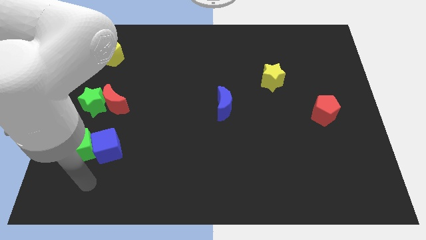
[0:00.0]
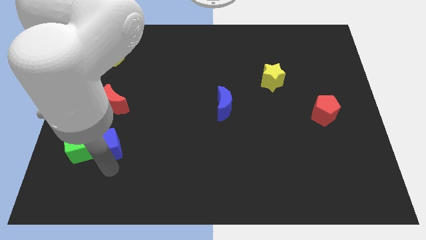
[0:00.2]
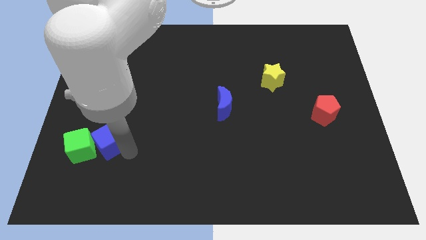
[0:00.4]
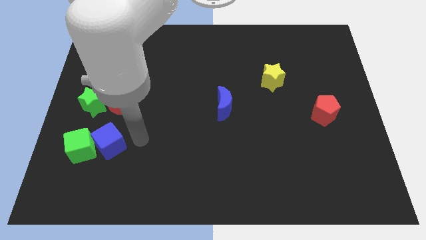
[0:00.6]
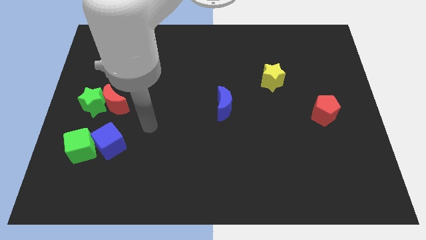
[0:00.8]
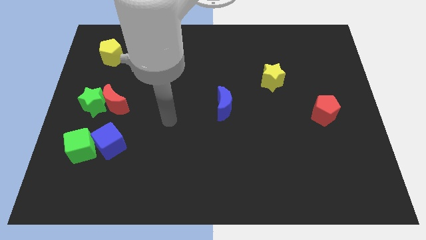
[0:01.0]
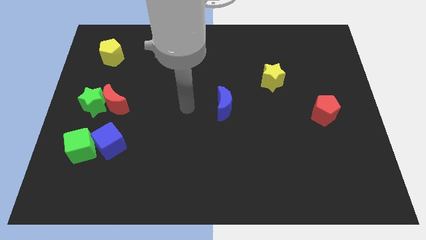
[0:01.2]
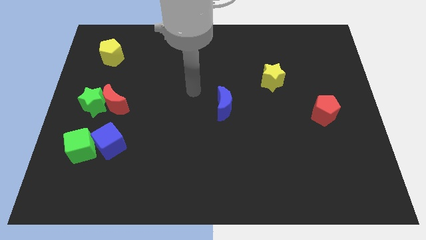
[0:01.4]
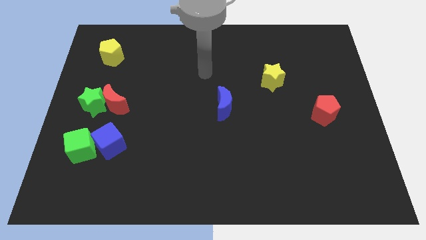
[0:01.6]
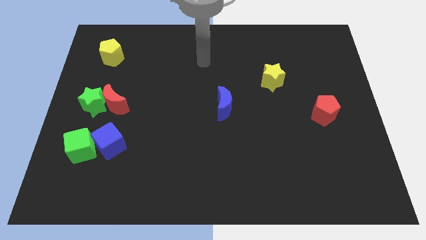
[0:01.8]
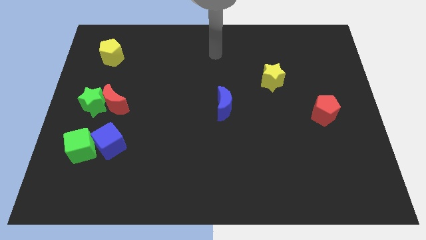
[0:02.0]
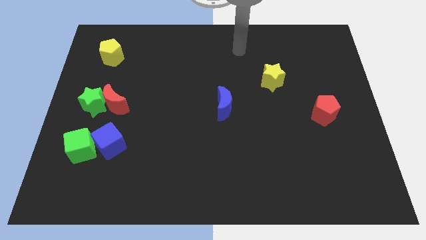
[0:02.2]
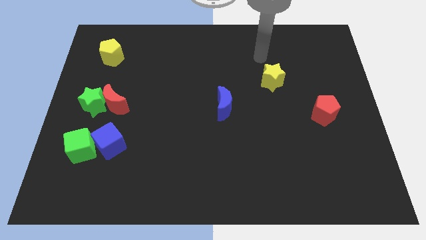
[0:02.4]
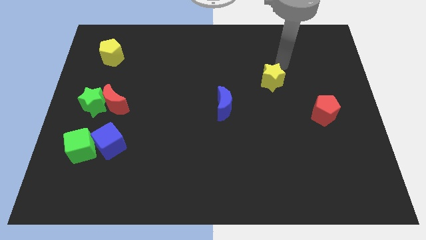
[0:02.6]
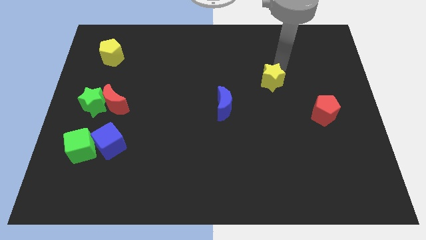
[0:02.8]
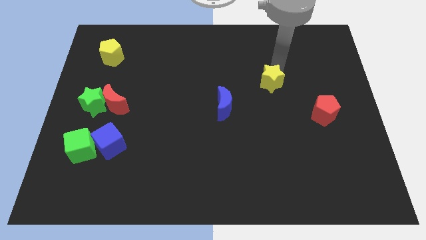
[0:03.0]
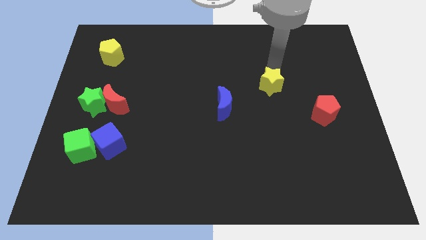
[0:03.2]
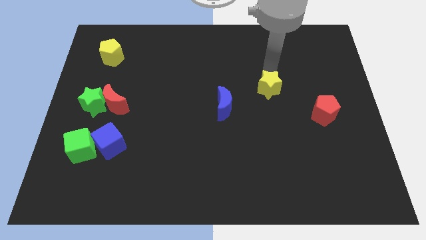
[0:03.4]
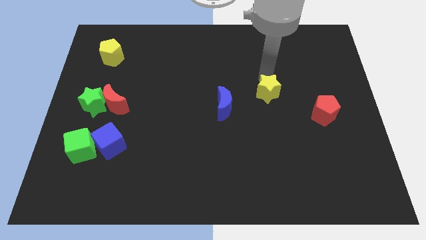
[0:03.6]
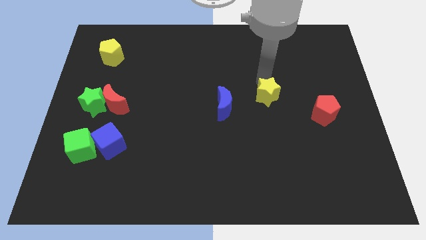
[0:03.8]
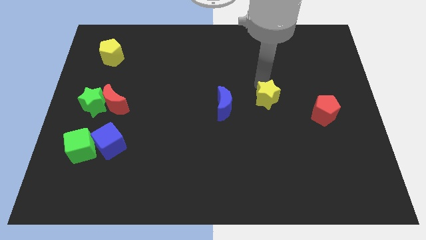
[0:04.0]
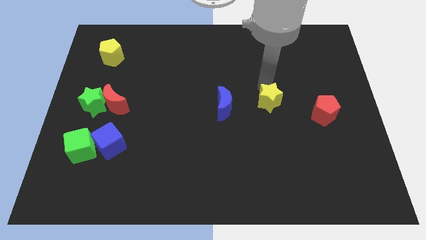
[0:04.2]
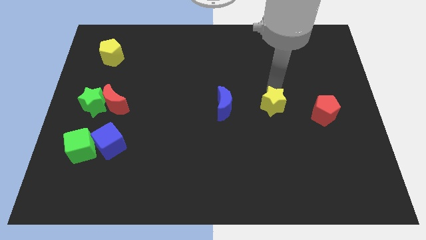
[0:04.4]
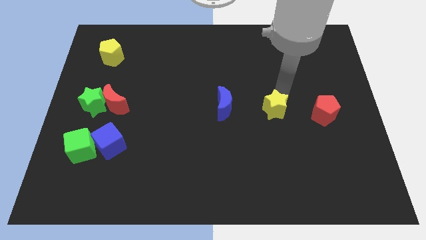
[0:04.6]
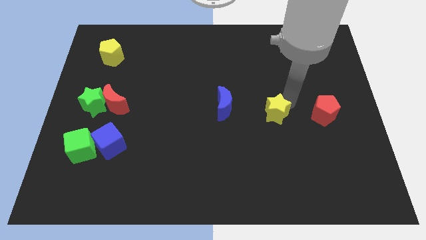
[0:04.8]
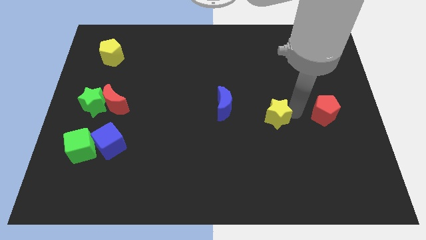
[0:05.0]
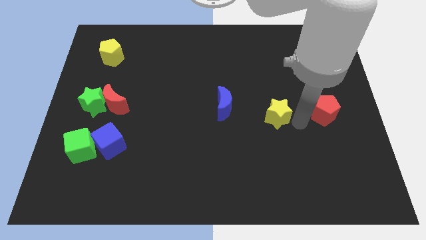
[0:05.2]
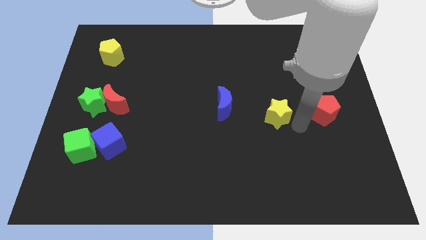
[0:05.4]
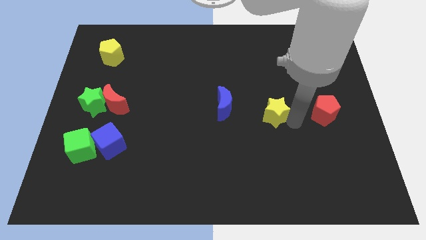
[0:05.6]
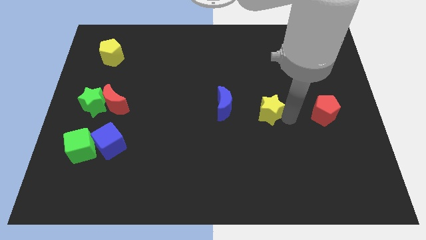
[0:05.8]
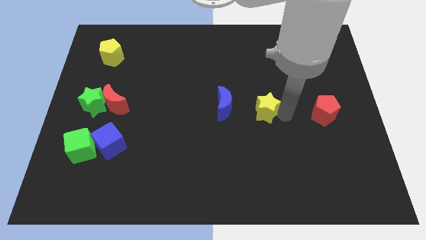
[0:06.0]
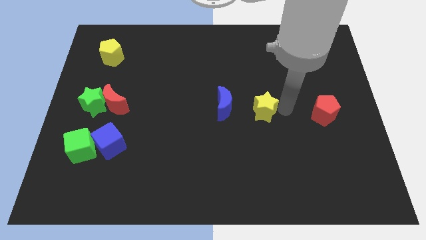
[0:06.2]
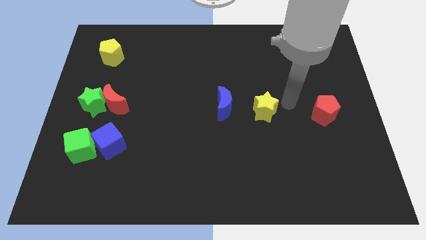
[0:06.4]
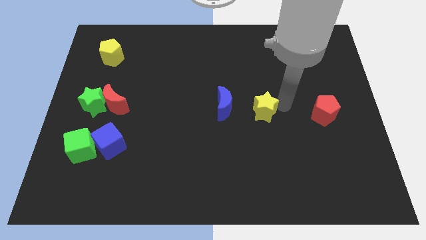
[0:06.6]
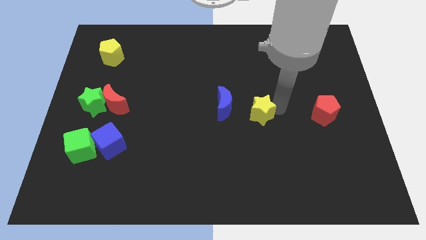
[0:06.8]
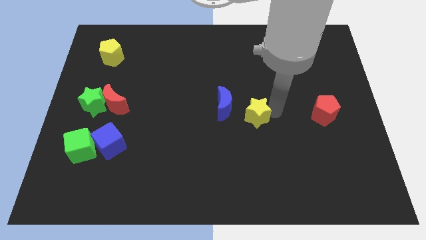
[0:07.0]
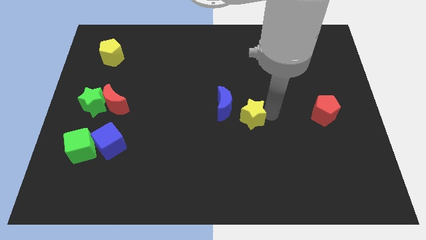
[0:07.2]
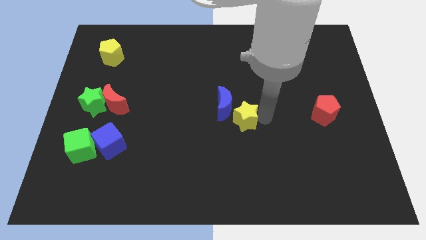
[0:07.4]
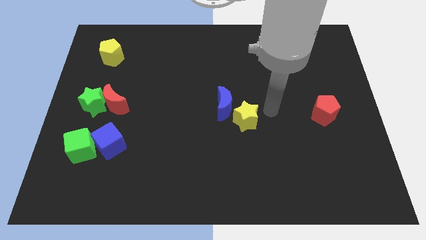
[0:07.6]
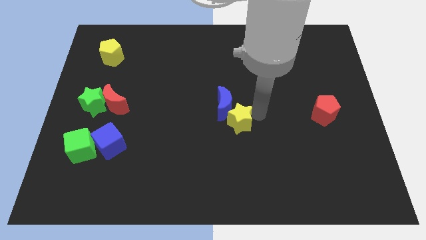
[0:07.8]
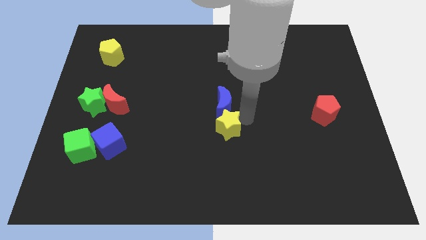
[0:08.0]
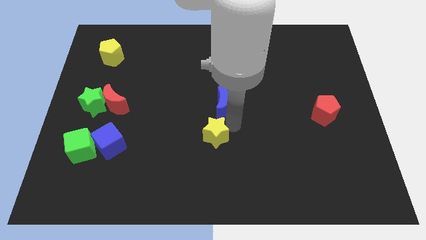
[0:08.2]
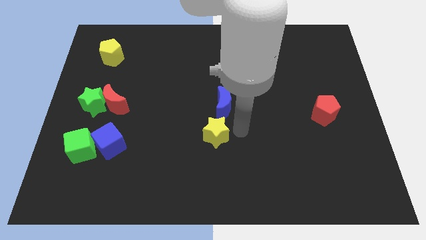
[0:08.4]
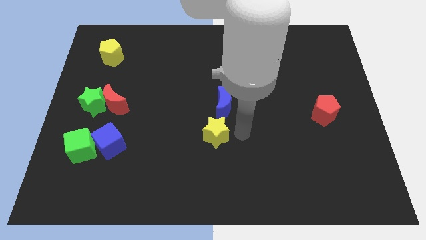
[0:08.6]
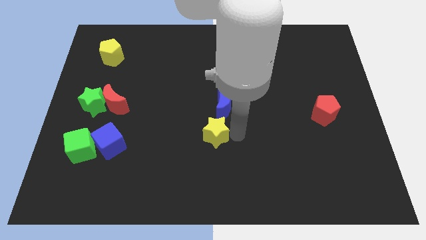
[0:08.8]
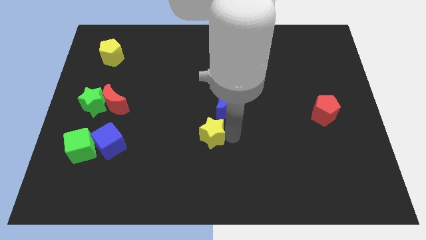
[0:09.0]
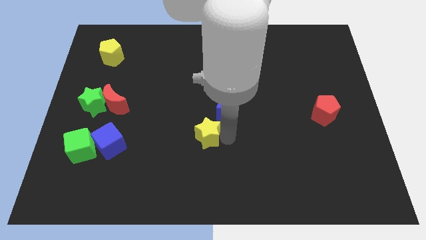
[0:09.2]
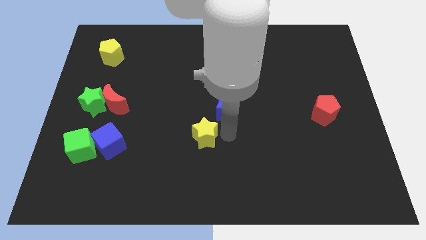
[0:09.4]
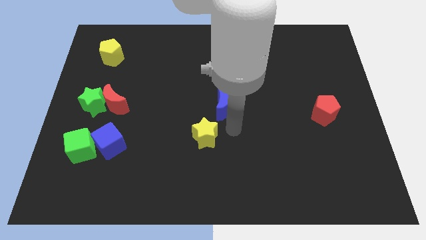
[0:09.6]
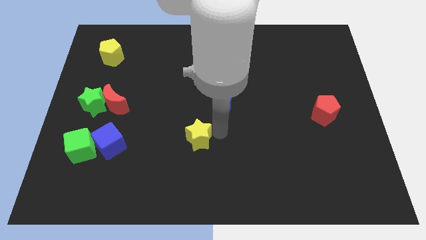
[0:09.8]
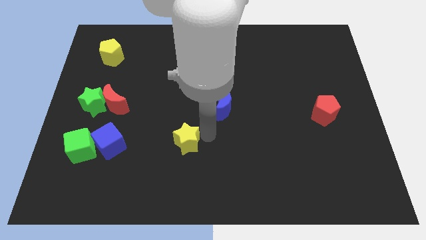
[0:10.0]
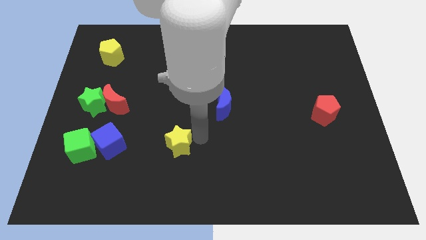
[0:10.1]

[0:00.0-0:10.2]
slide the yellow star right of the blue cube

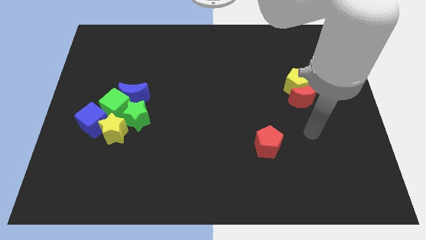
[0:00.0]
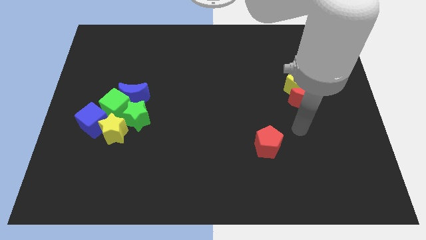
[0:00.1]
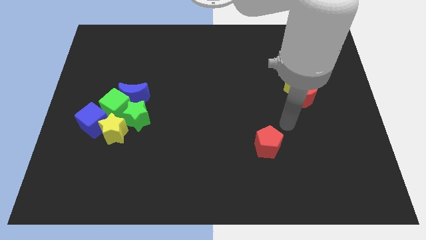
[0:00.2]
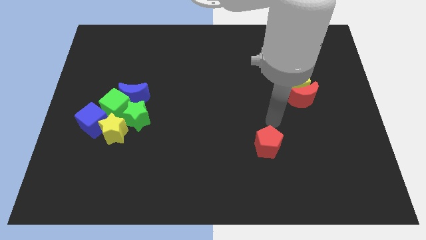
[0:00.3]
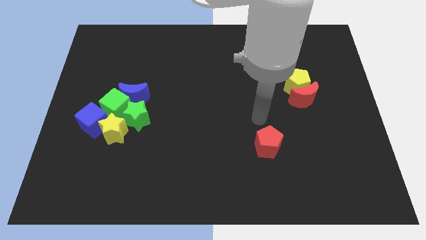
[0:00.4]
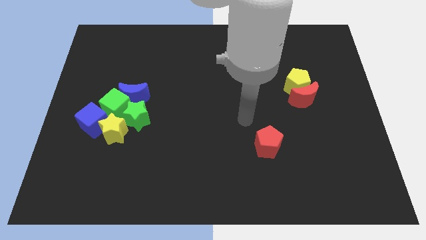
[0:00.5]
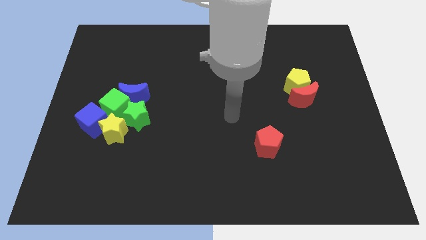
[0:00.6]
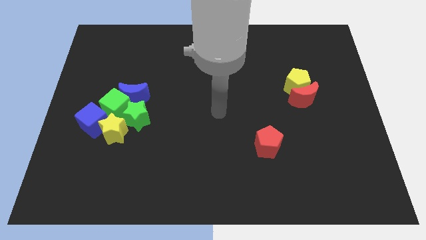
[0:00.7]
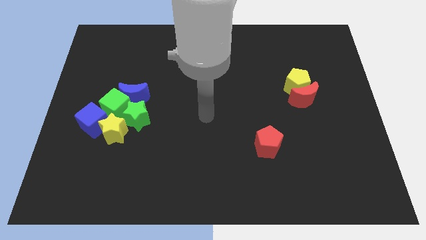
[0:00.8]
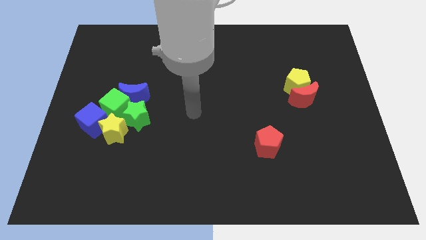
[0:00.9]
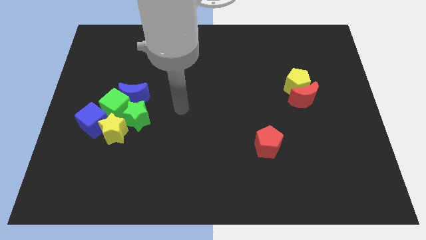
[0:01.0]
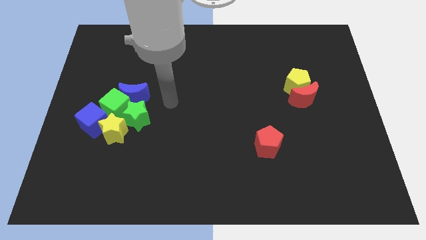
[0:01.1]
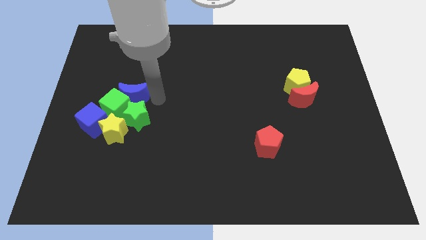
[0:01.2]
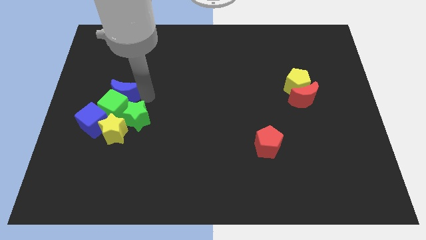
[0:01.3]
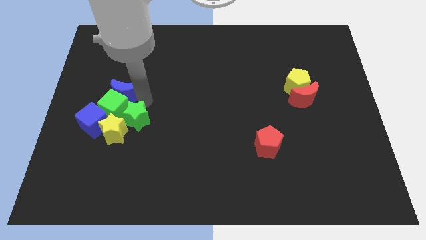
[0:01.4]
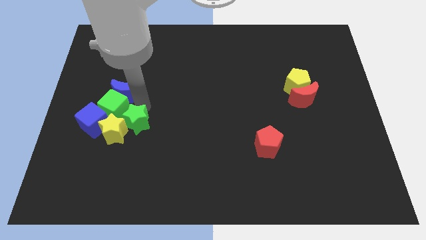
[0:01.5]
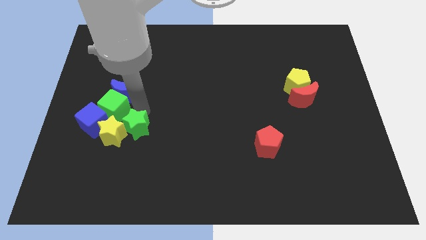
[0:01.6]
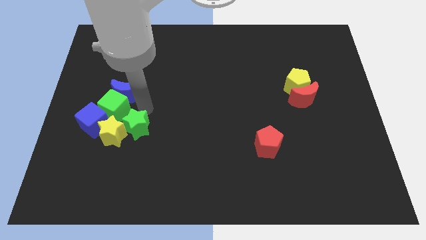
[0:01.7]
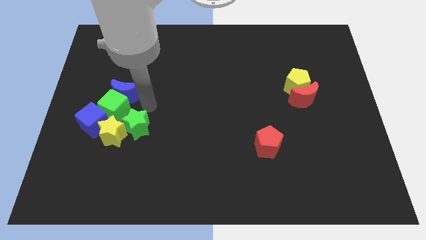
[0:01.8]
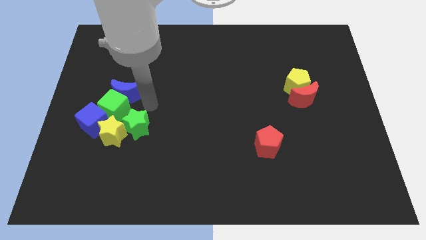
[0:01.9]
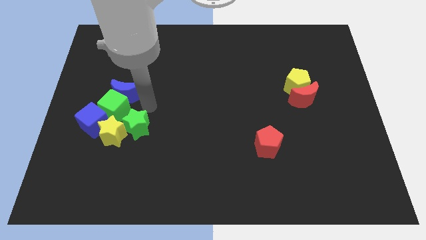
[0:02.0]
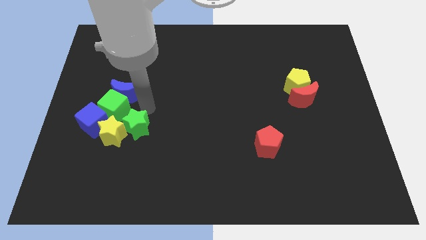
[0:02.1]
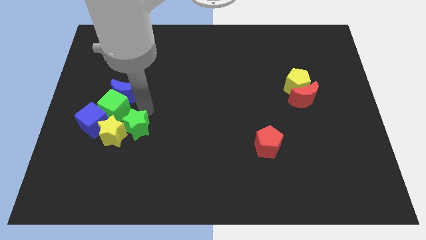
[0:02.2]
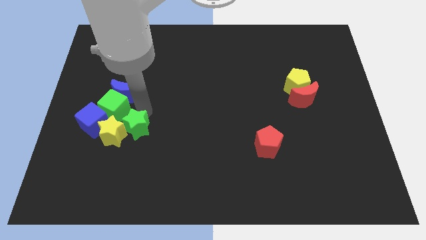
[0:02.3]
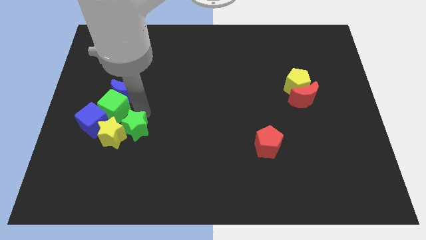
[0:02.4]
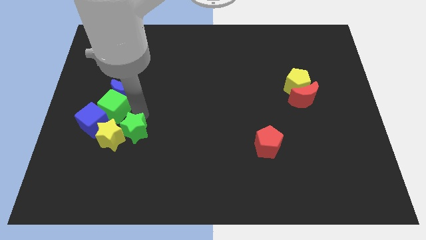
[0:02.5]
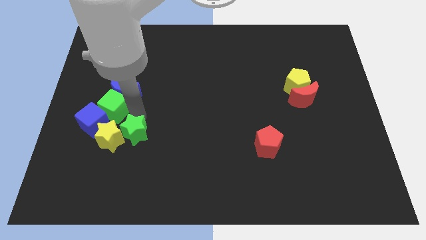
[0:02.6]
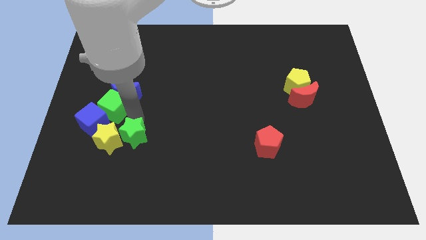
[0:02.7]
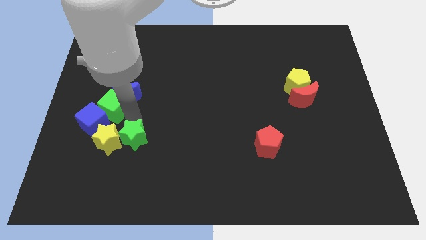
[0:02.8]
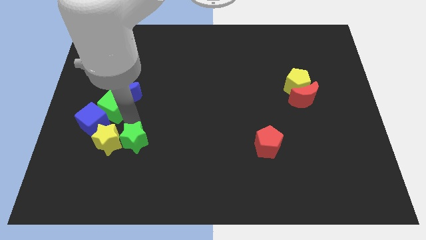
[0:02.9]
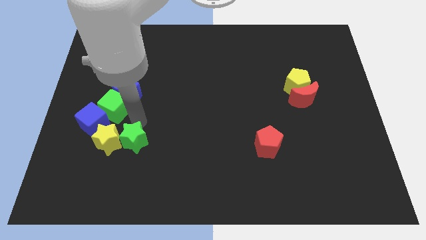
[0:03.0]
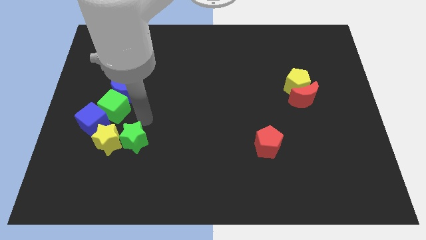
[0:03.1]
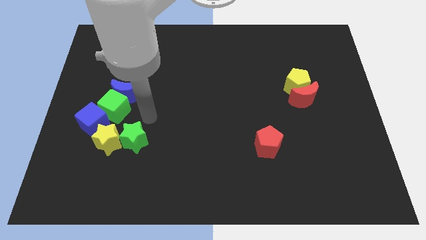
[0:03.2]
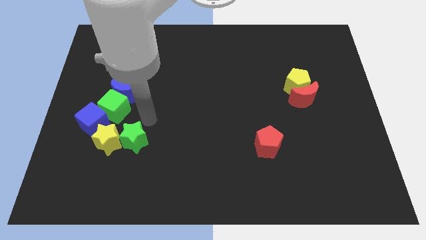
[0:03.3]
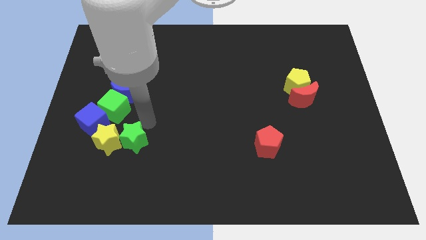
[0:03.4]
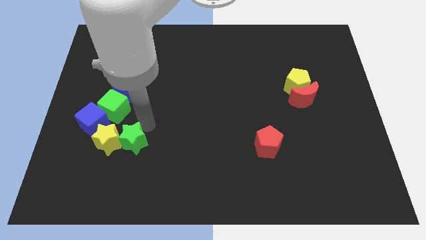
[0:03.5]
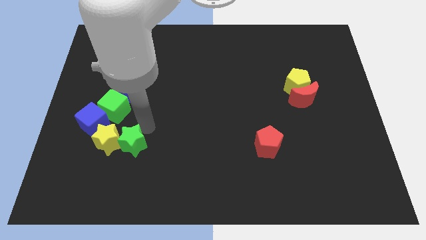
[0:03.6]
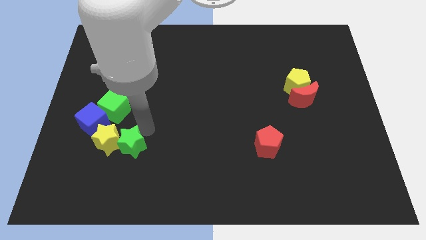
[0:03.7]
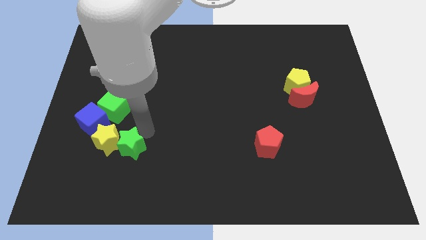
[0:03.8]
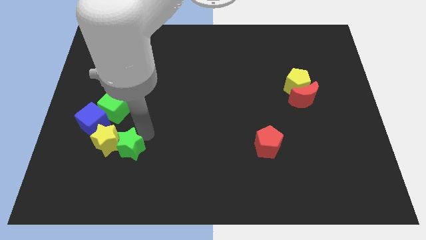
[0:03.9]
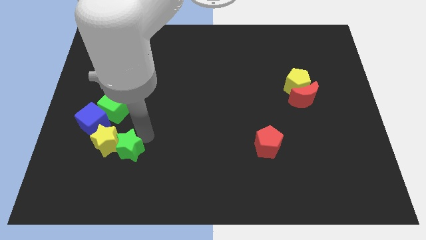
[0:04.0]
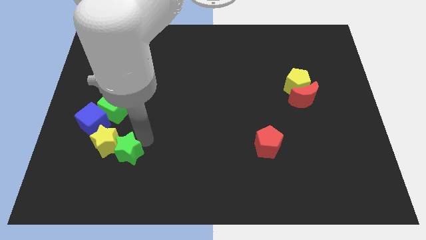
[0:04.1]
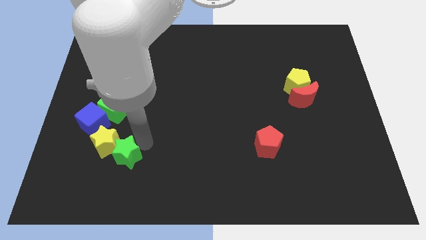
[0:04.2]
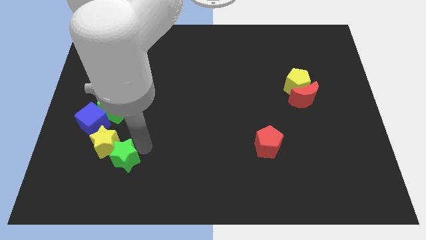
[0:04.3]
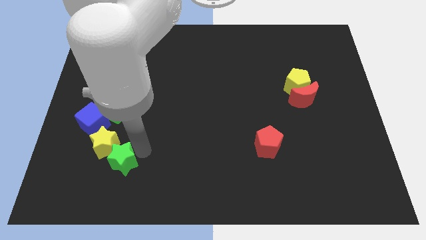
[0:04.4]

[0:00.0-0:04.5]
push the green star below the yellow star
